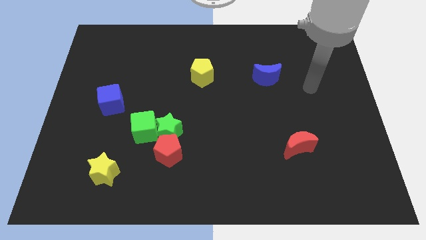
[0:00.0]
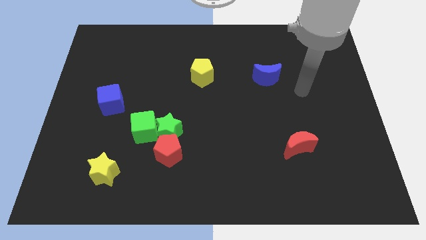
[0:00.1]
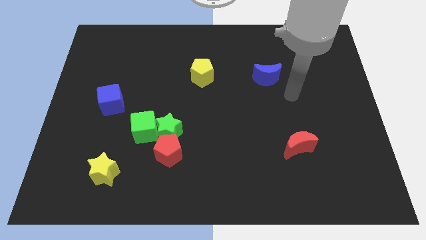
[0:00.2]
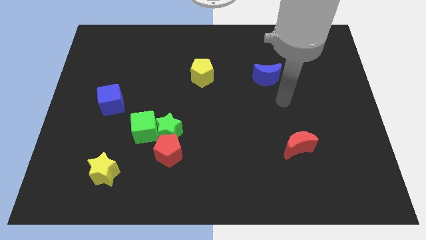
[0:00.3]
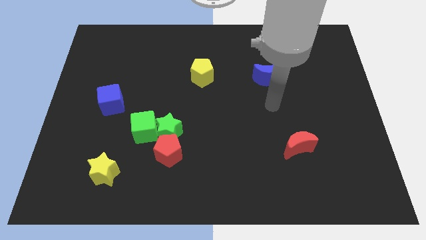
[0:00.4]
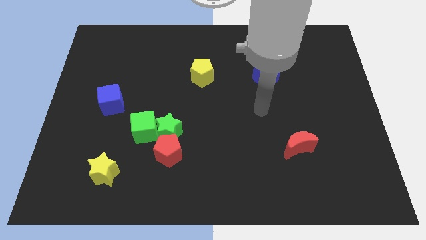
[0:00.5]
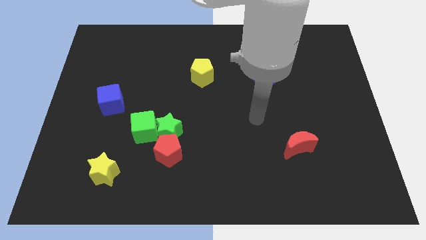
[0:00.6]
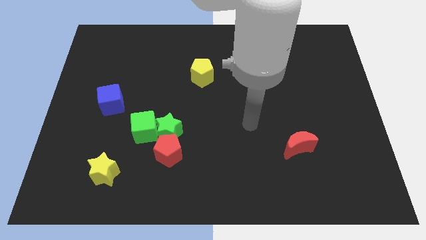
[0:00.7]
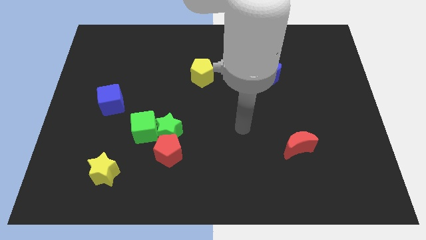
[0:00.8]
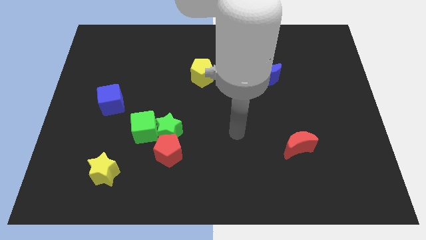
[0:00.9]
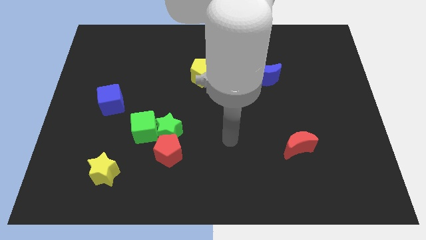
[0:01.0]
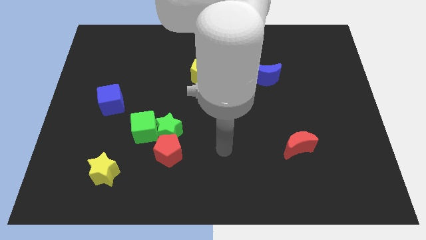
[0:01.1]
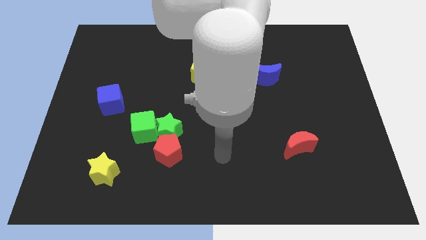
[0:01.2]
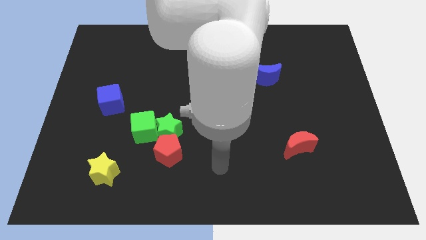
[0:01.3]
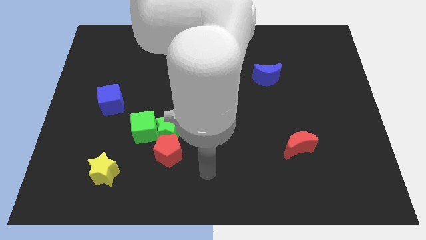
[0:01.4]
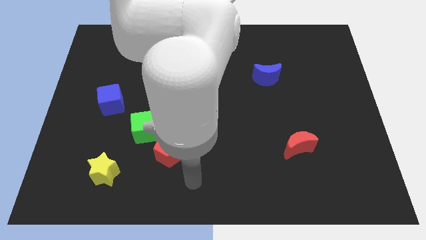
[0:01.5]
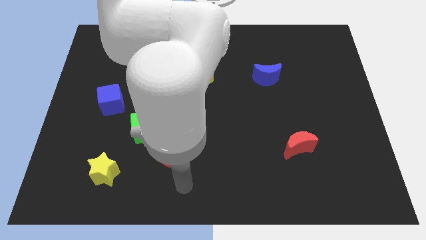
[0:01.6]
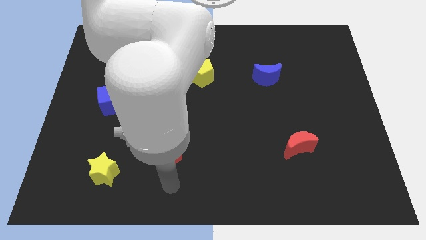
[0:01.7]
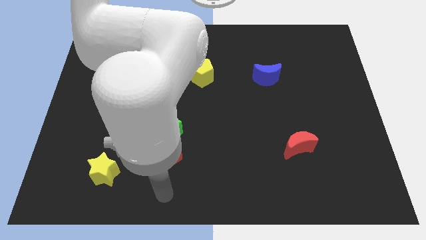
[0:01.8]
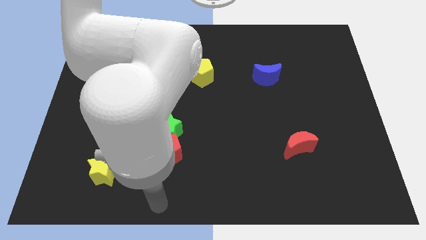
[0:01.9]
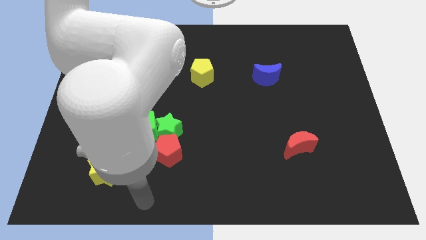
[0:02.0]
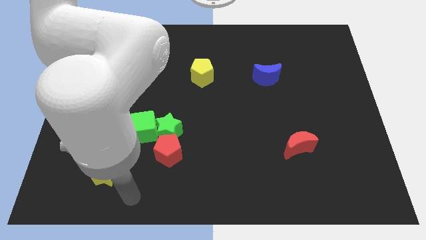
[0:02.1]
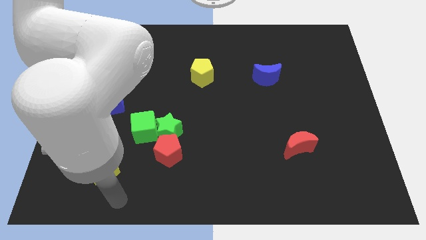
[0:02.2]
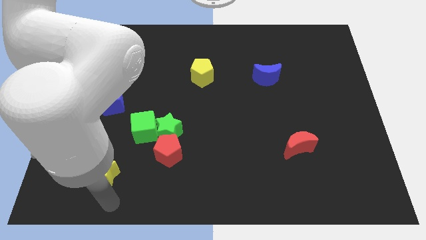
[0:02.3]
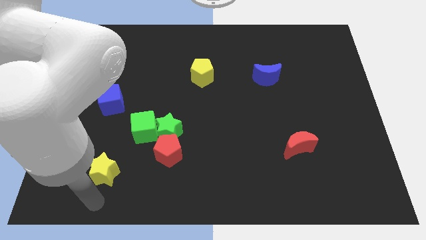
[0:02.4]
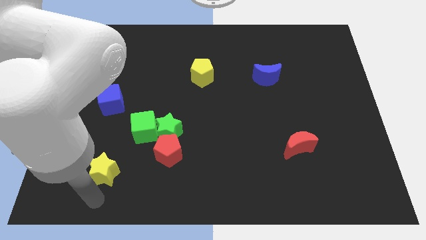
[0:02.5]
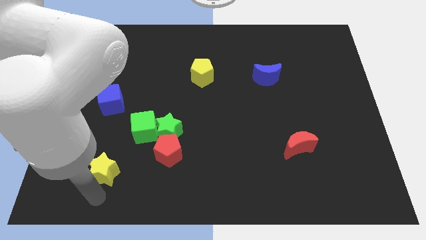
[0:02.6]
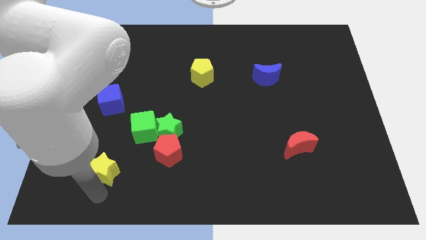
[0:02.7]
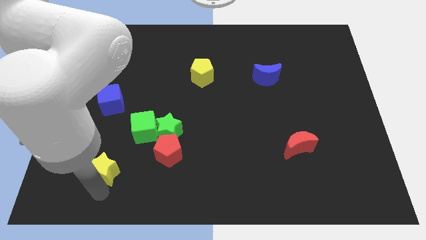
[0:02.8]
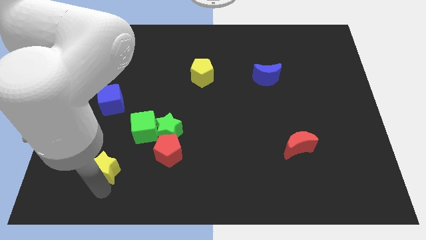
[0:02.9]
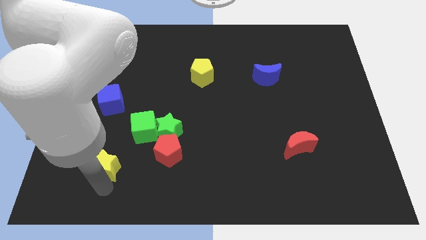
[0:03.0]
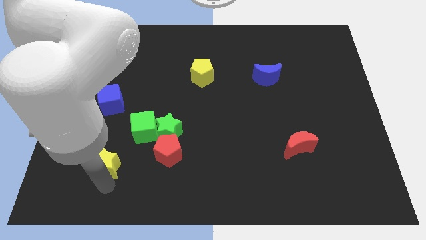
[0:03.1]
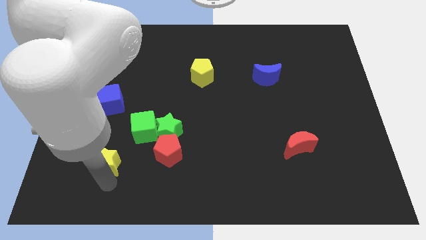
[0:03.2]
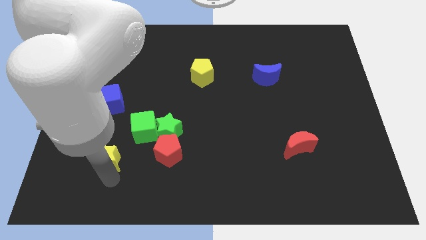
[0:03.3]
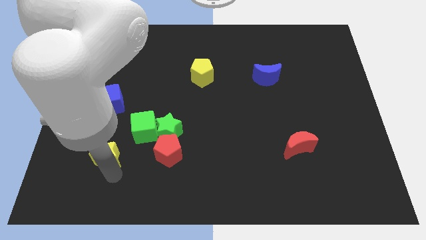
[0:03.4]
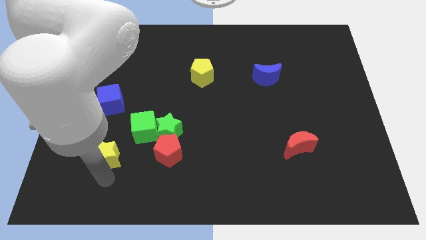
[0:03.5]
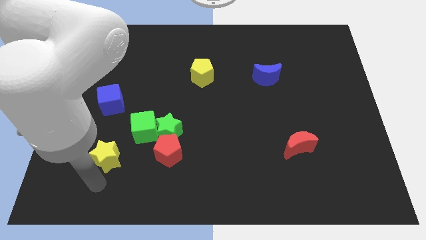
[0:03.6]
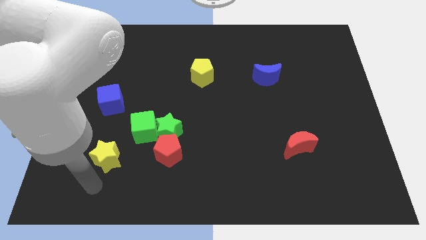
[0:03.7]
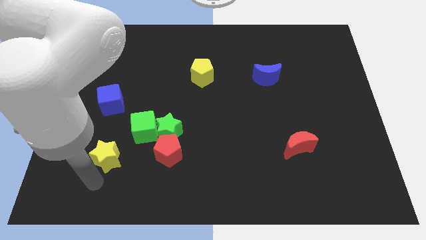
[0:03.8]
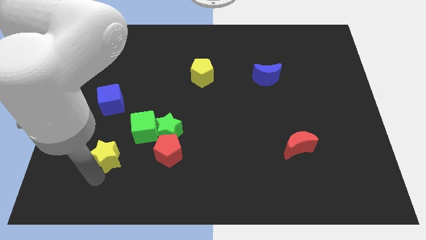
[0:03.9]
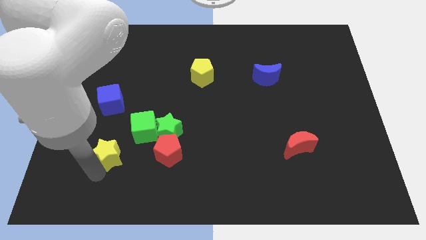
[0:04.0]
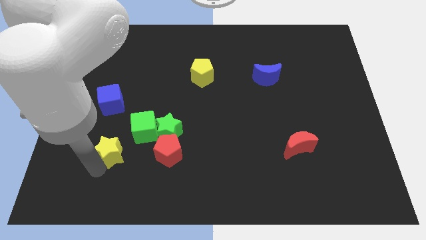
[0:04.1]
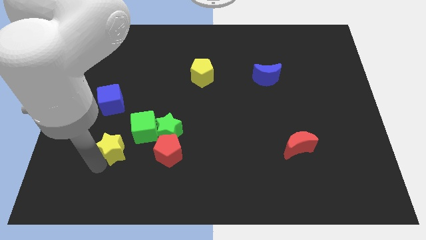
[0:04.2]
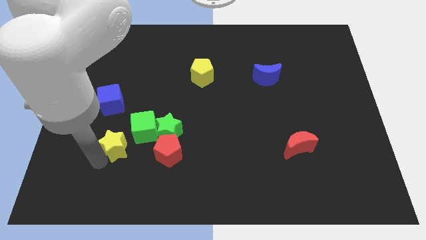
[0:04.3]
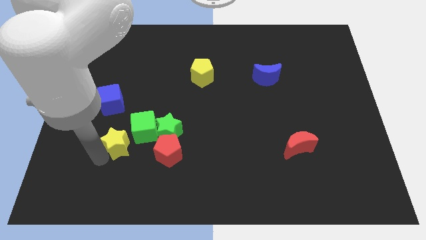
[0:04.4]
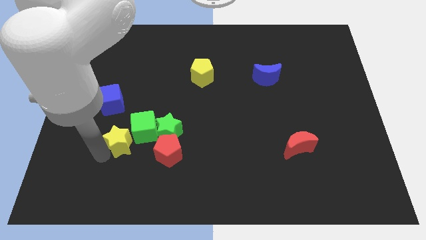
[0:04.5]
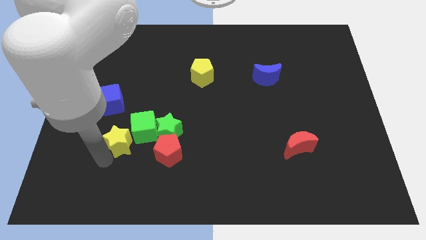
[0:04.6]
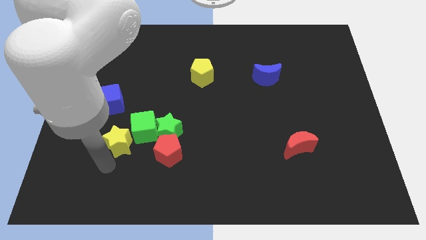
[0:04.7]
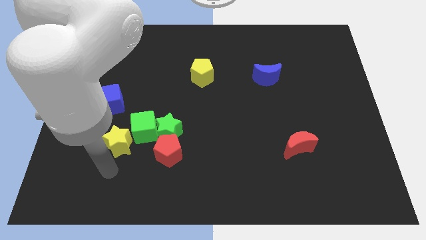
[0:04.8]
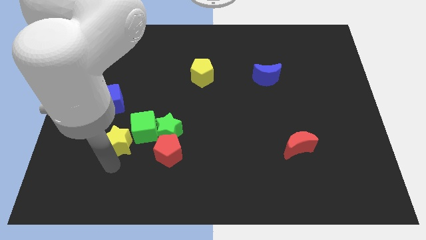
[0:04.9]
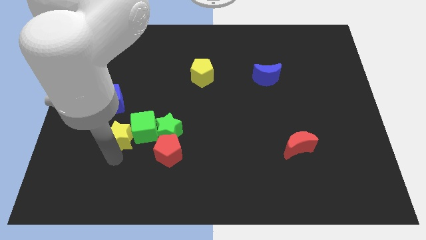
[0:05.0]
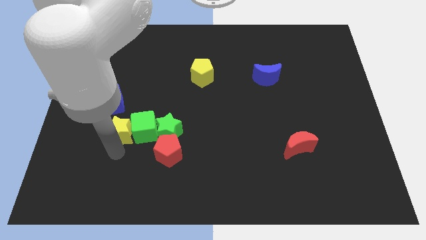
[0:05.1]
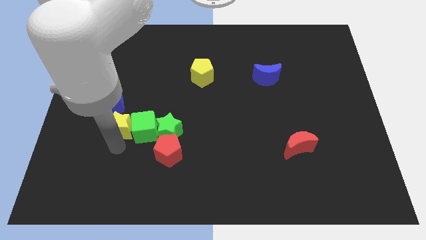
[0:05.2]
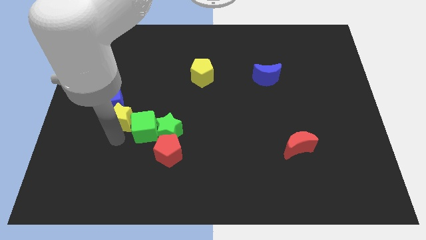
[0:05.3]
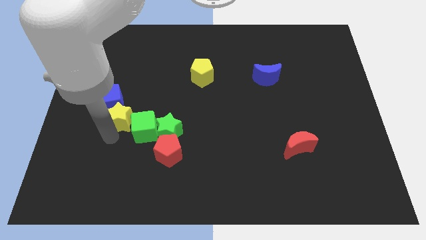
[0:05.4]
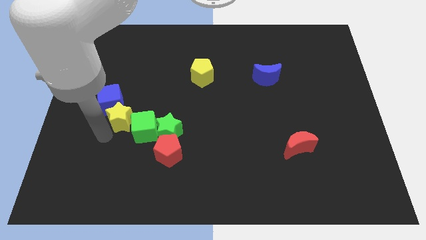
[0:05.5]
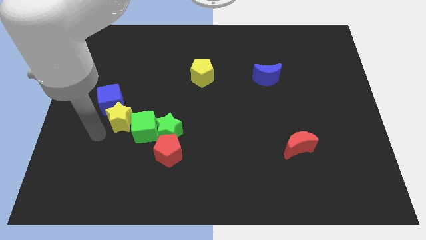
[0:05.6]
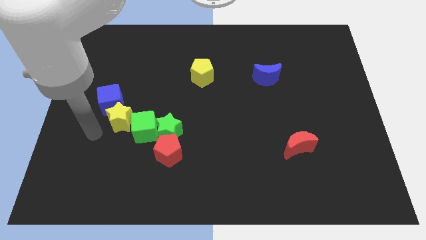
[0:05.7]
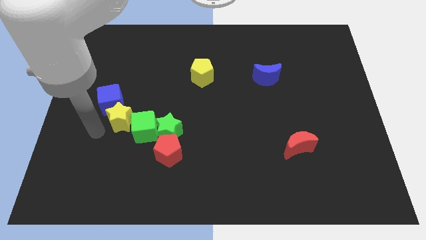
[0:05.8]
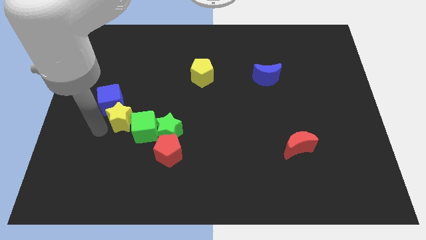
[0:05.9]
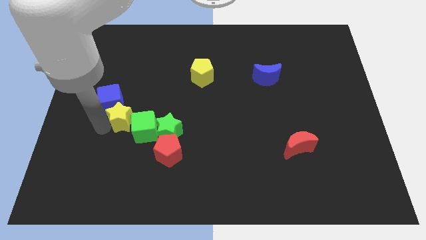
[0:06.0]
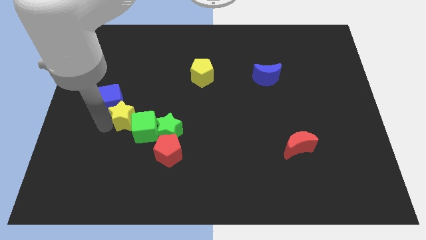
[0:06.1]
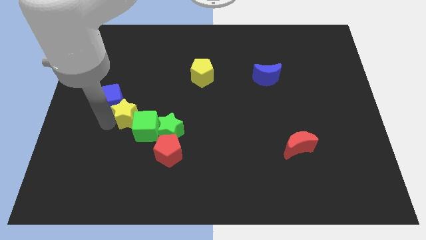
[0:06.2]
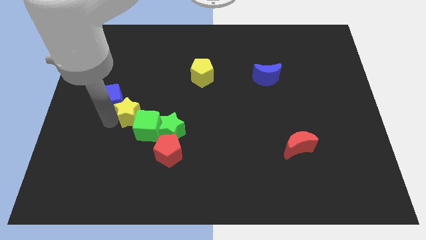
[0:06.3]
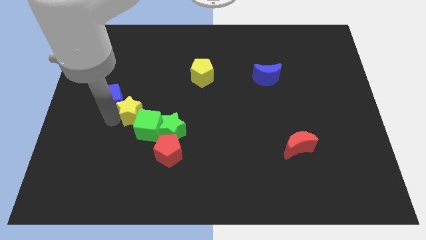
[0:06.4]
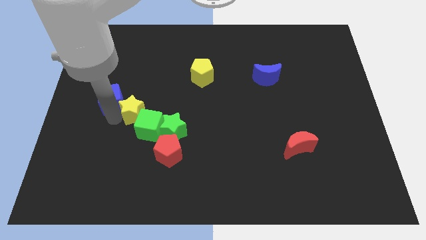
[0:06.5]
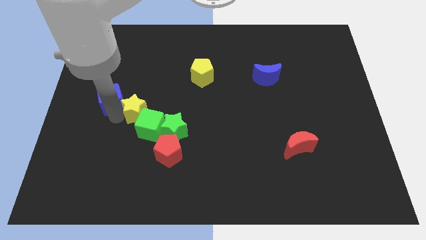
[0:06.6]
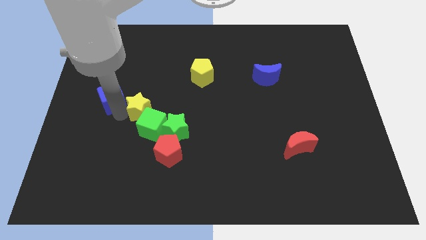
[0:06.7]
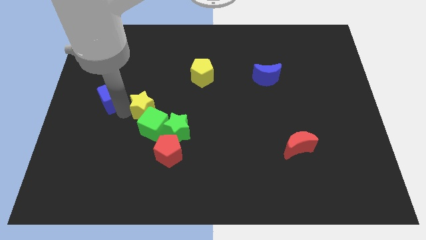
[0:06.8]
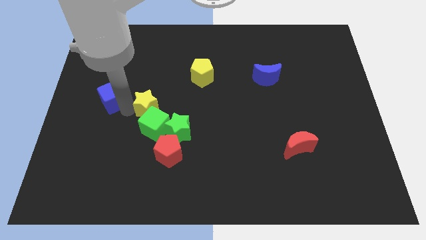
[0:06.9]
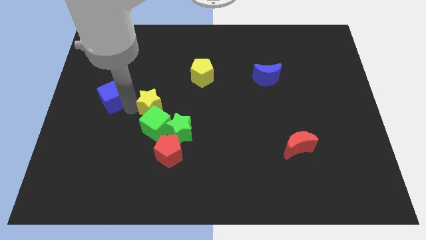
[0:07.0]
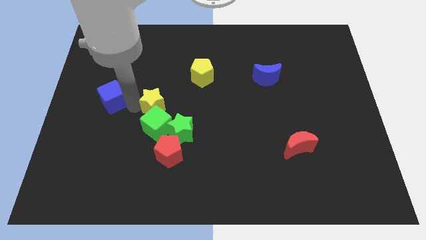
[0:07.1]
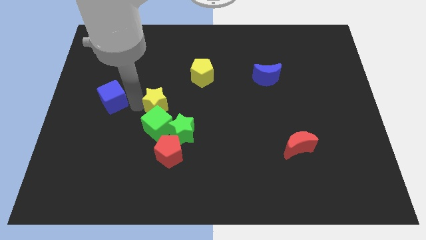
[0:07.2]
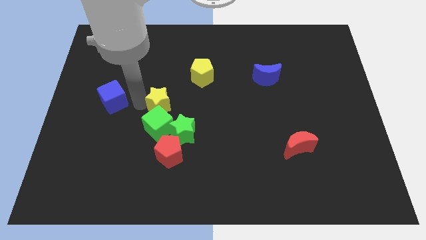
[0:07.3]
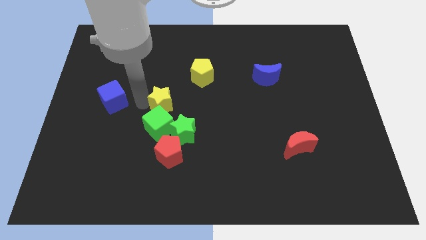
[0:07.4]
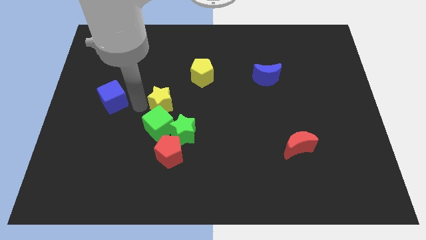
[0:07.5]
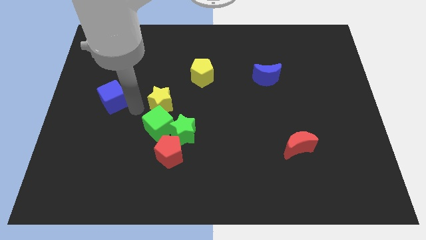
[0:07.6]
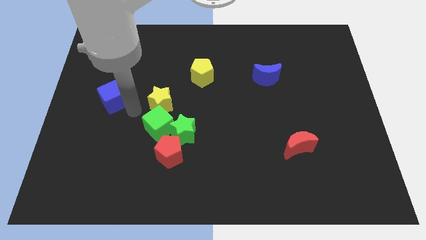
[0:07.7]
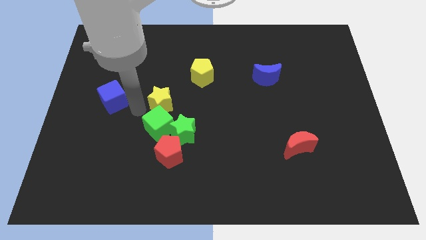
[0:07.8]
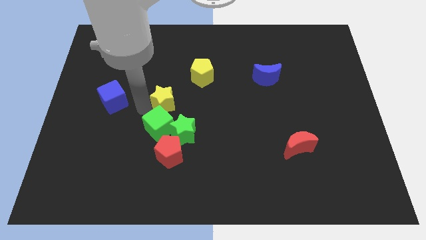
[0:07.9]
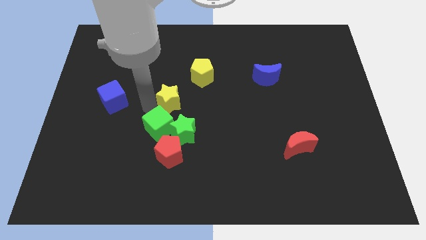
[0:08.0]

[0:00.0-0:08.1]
slide the yellow star upwards and then to the right
